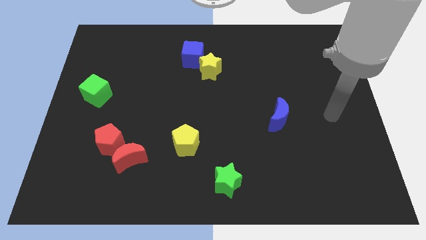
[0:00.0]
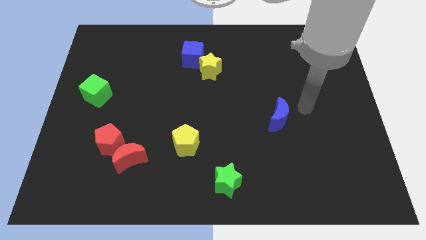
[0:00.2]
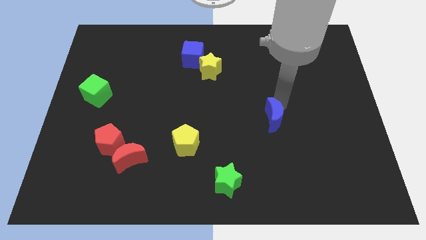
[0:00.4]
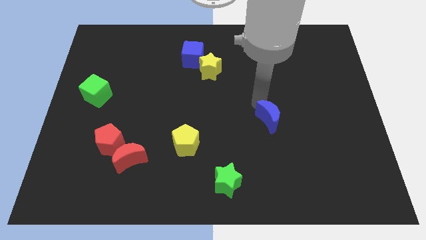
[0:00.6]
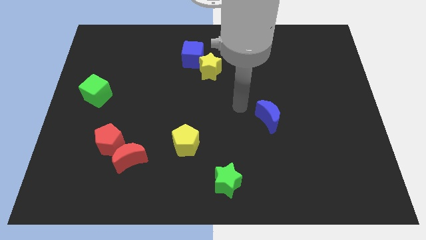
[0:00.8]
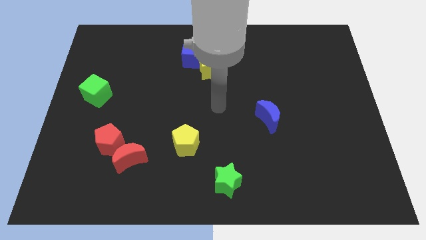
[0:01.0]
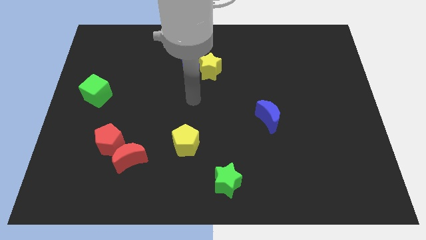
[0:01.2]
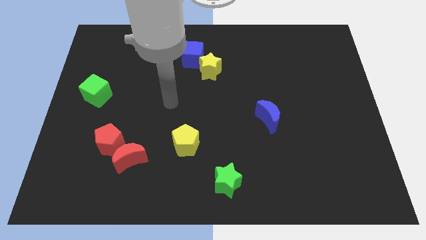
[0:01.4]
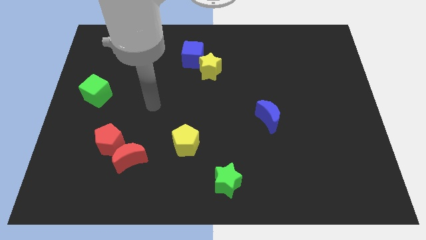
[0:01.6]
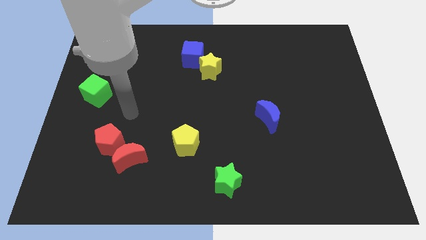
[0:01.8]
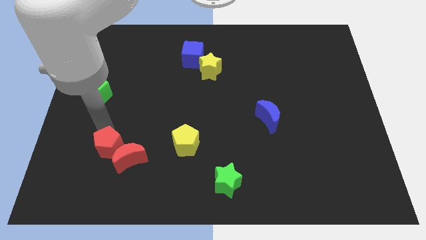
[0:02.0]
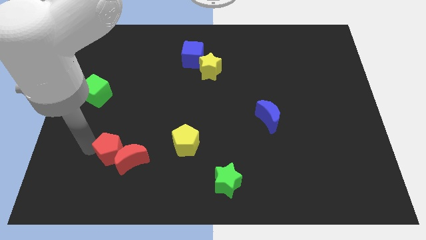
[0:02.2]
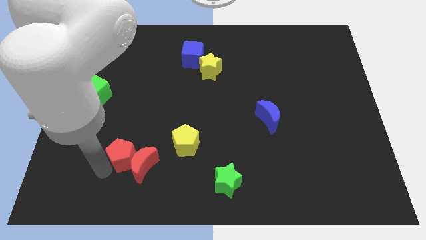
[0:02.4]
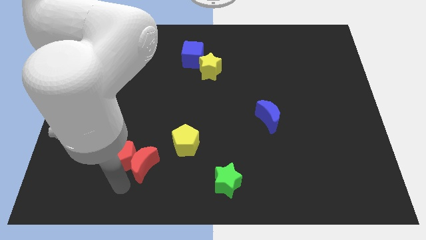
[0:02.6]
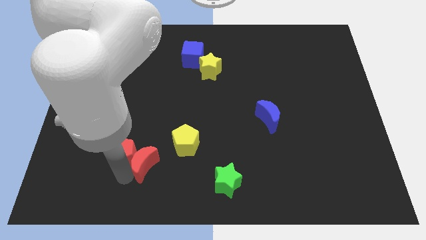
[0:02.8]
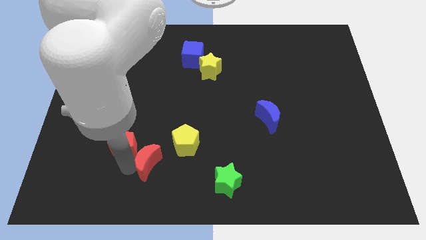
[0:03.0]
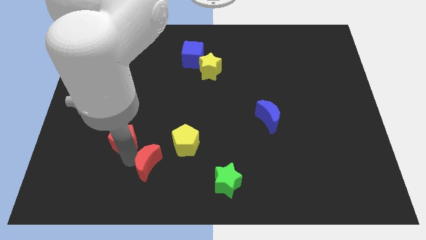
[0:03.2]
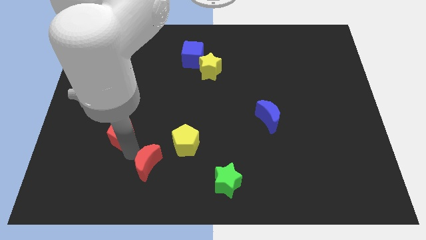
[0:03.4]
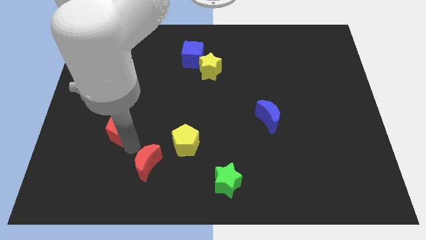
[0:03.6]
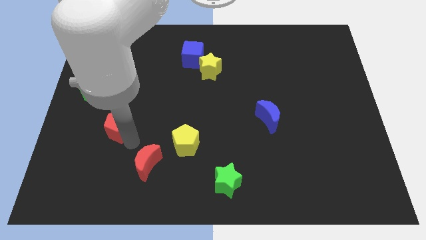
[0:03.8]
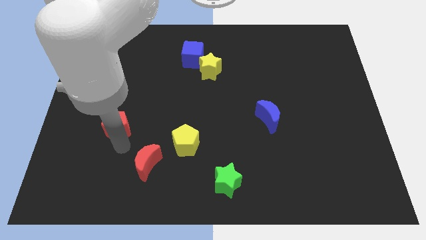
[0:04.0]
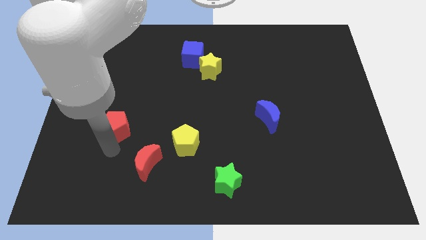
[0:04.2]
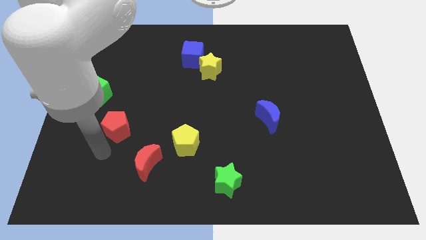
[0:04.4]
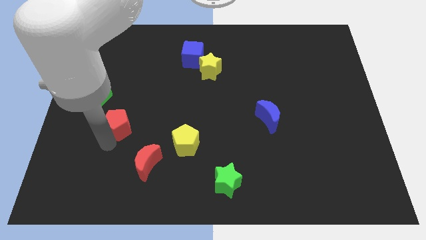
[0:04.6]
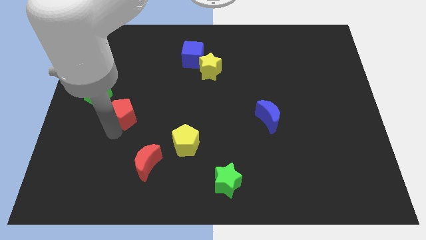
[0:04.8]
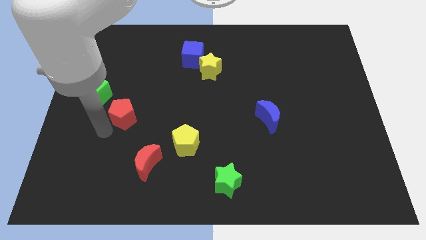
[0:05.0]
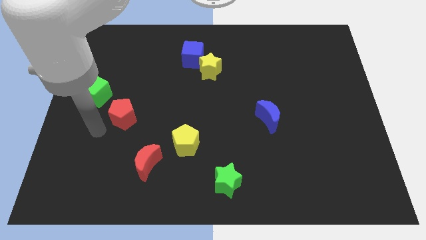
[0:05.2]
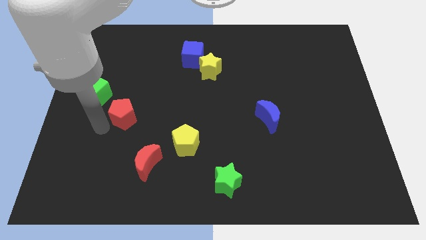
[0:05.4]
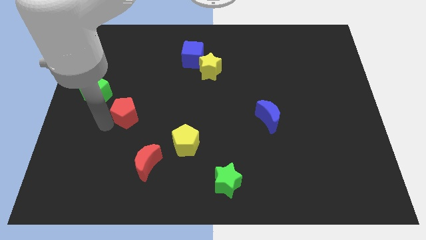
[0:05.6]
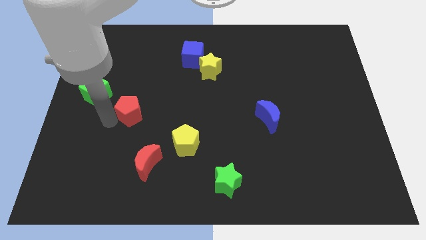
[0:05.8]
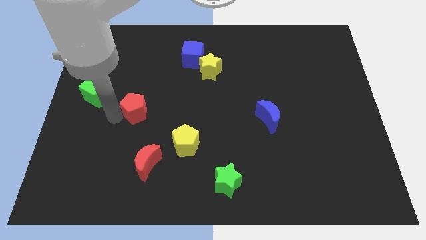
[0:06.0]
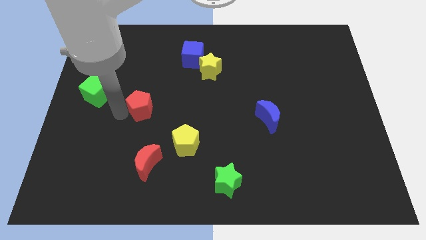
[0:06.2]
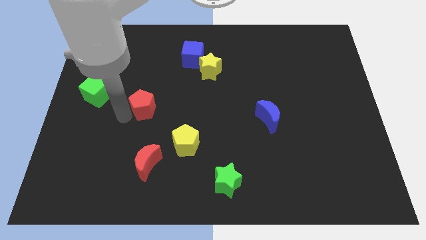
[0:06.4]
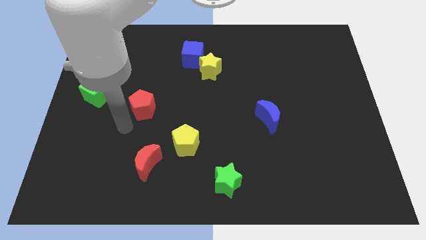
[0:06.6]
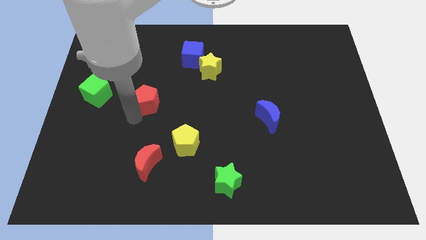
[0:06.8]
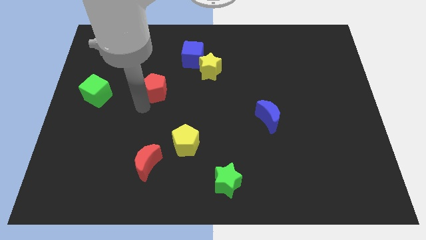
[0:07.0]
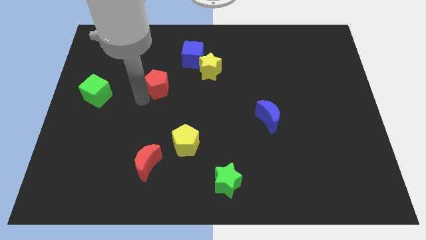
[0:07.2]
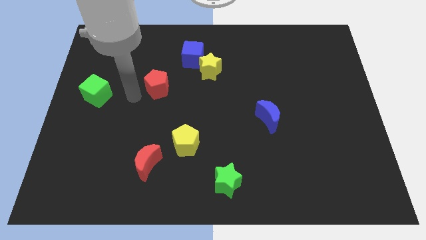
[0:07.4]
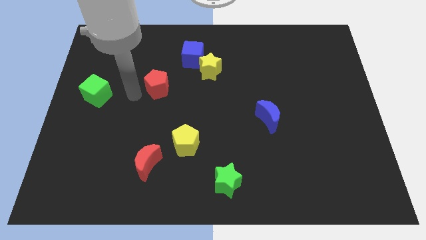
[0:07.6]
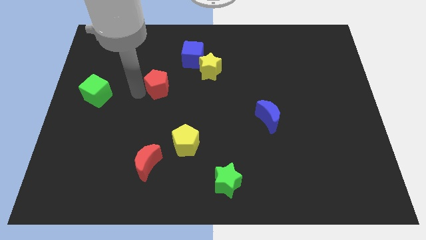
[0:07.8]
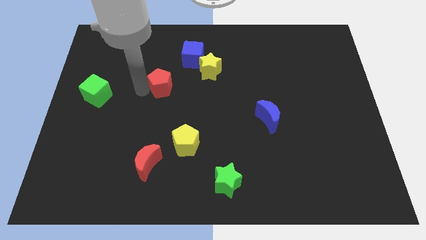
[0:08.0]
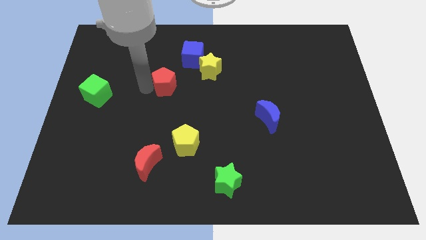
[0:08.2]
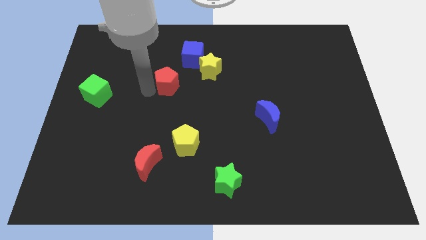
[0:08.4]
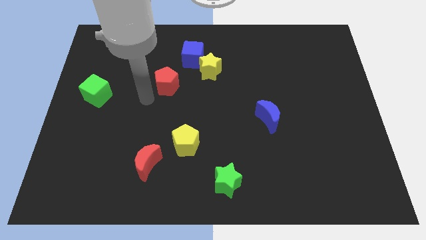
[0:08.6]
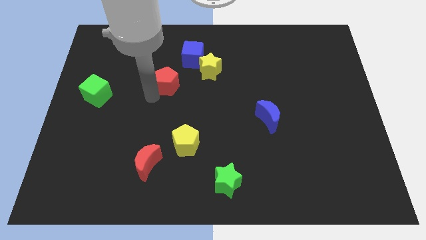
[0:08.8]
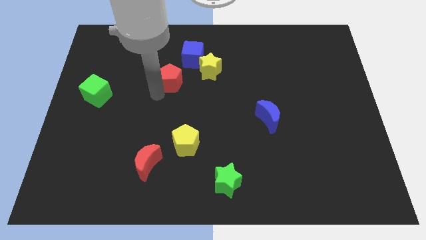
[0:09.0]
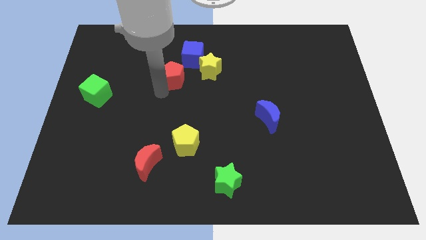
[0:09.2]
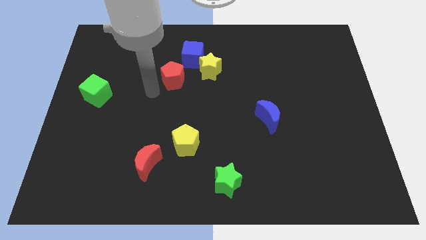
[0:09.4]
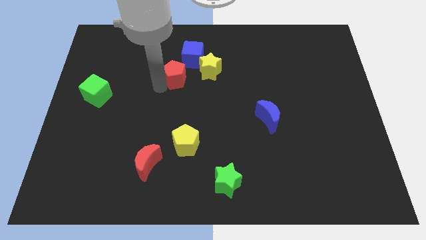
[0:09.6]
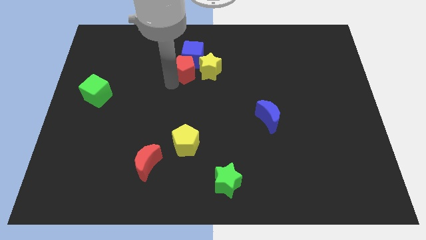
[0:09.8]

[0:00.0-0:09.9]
push the red pentagon towards the blue cube

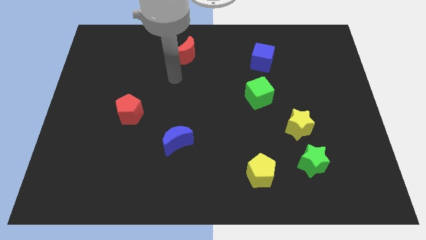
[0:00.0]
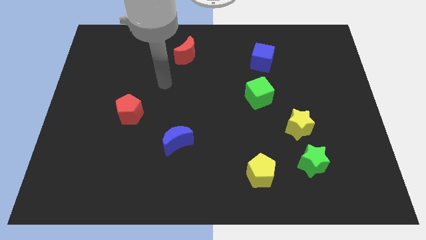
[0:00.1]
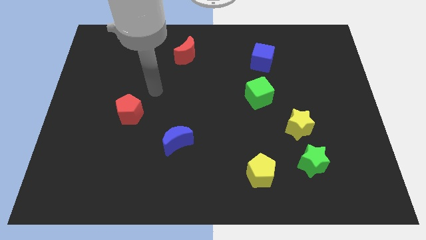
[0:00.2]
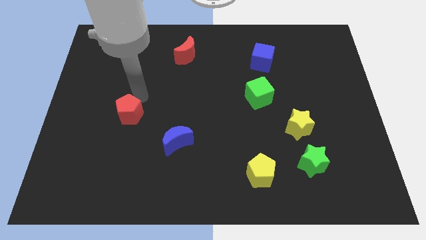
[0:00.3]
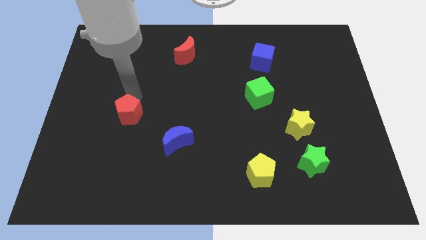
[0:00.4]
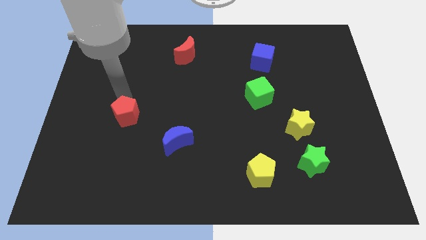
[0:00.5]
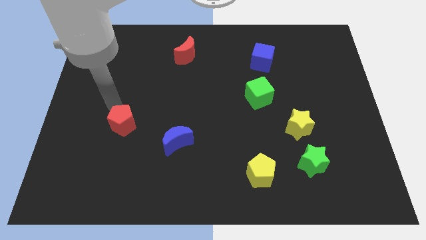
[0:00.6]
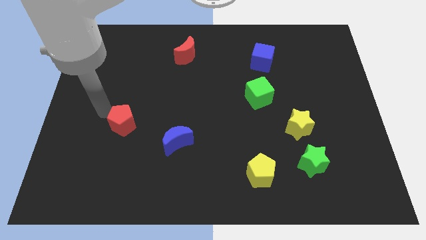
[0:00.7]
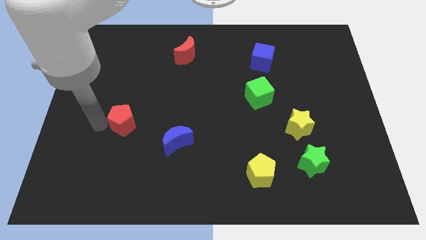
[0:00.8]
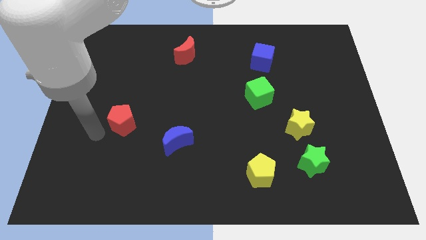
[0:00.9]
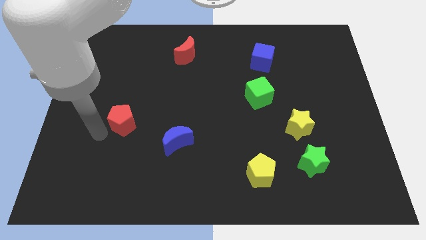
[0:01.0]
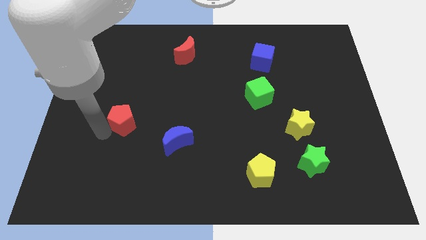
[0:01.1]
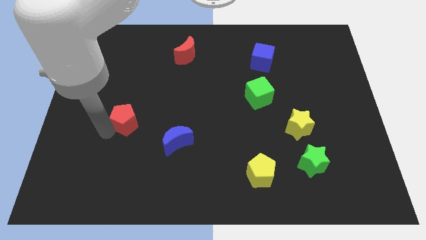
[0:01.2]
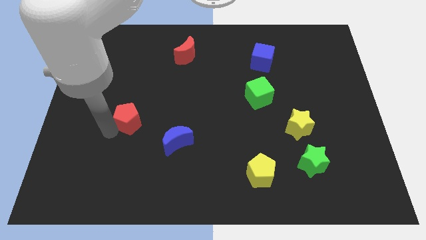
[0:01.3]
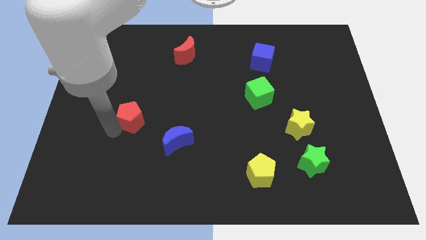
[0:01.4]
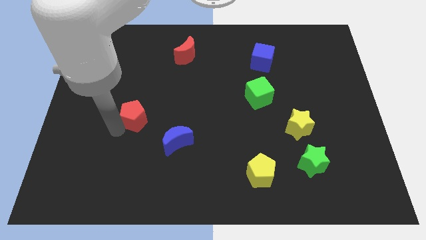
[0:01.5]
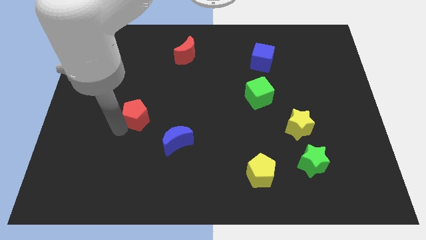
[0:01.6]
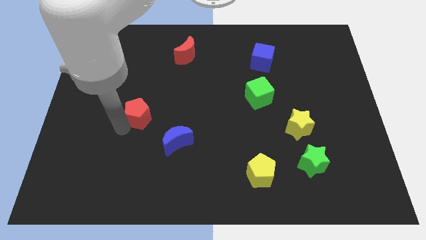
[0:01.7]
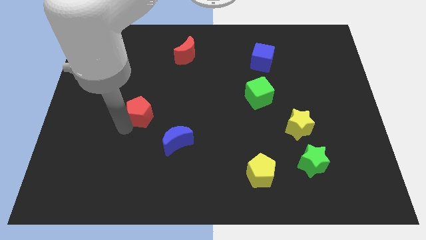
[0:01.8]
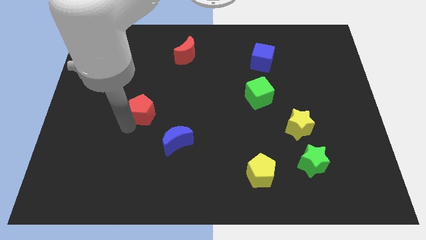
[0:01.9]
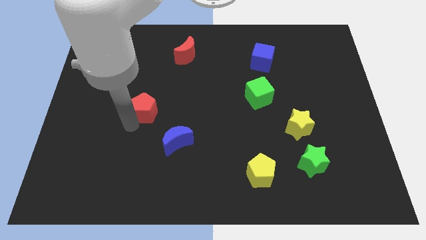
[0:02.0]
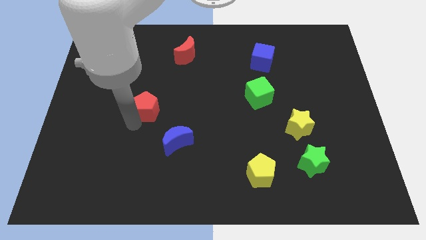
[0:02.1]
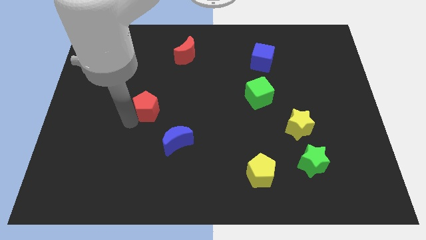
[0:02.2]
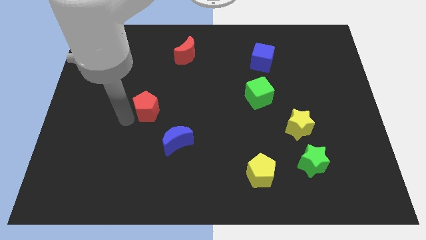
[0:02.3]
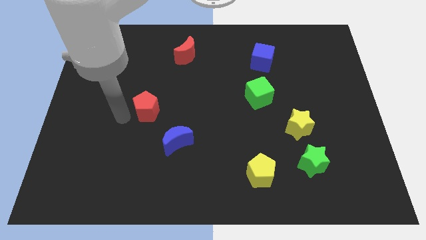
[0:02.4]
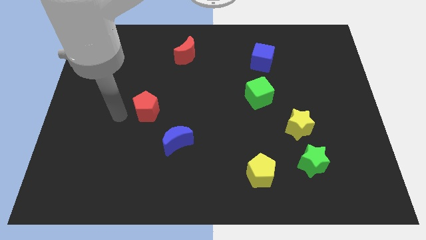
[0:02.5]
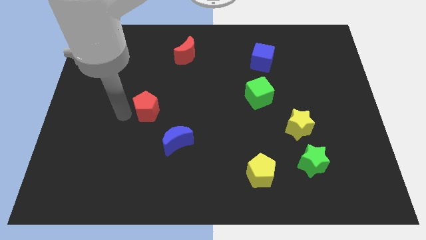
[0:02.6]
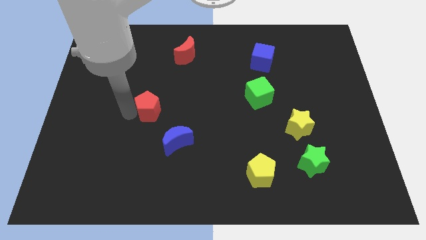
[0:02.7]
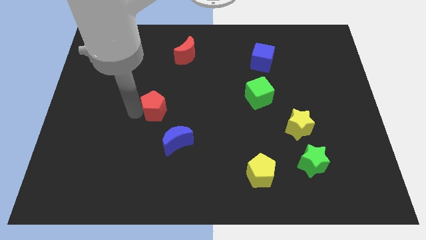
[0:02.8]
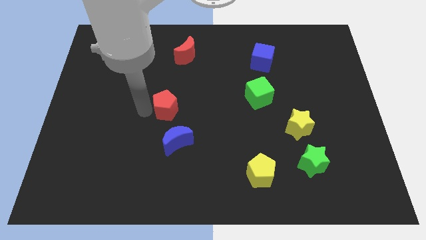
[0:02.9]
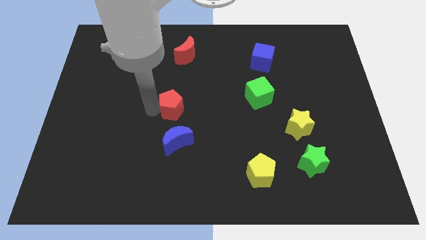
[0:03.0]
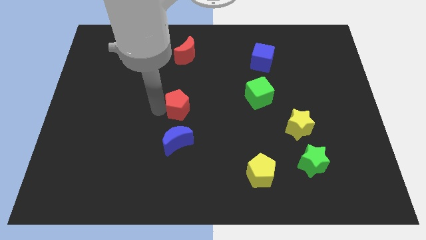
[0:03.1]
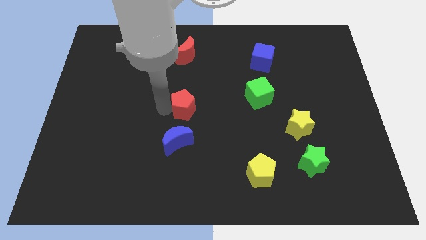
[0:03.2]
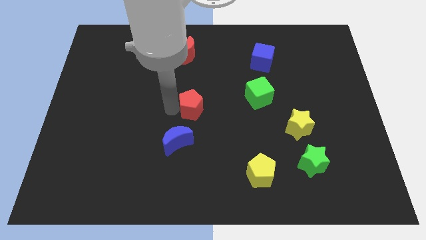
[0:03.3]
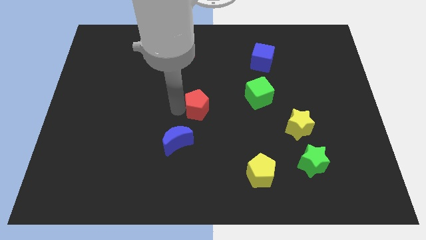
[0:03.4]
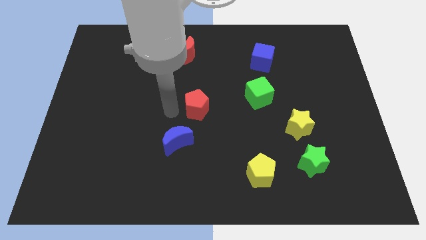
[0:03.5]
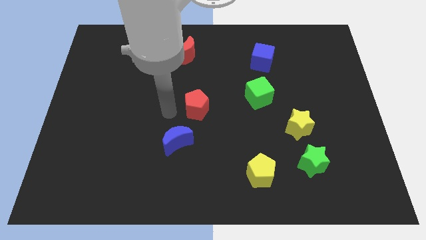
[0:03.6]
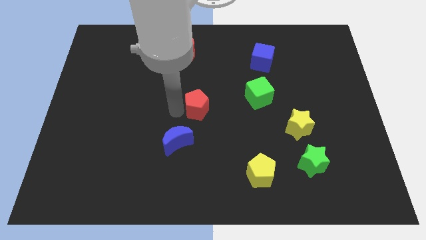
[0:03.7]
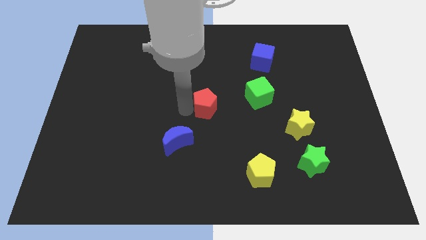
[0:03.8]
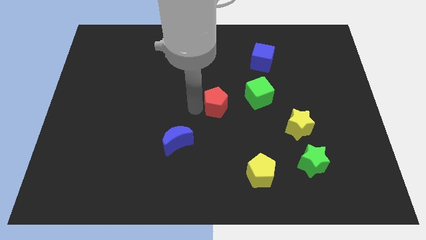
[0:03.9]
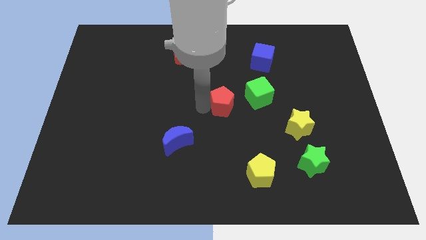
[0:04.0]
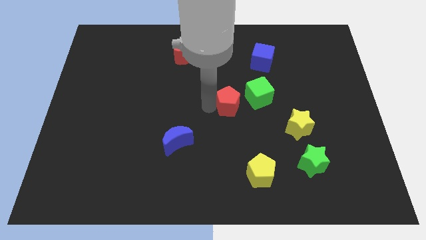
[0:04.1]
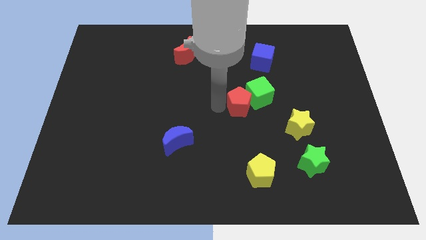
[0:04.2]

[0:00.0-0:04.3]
push the red pentagon towards the green cube
